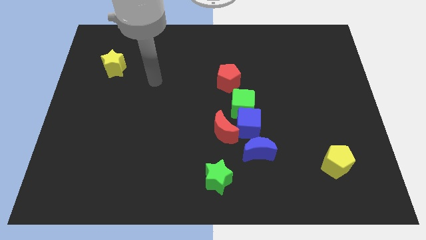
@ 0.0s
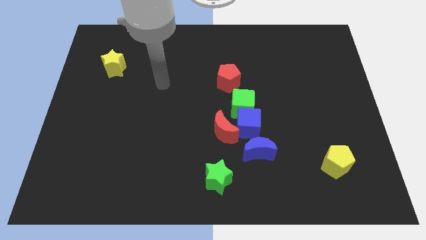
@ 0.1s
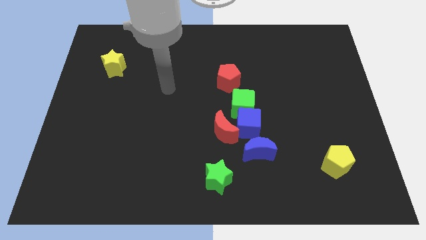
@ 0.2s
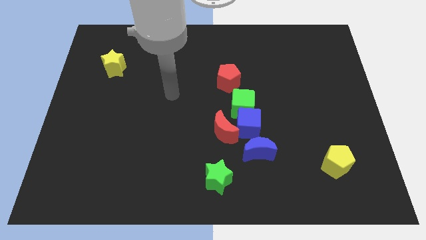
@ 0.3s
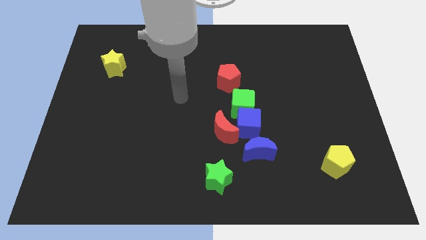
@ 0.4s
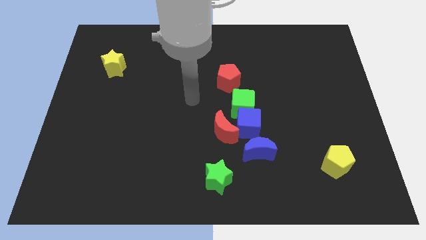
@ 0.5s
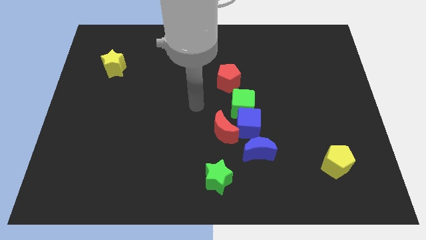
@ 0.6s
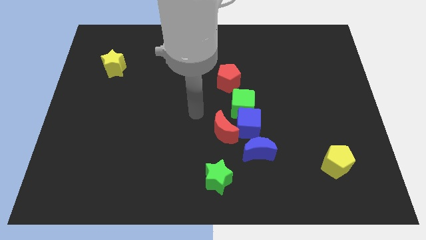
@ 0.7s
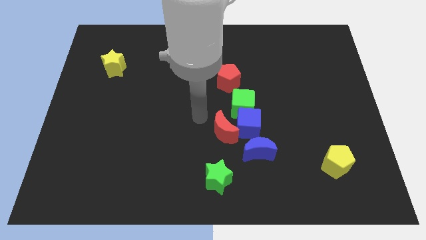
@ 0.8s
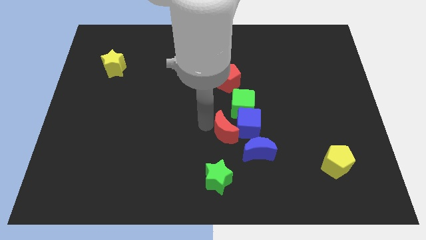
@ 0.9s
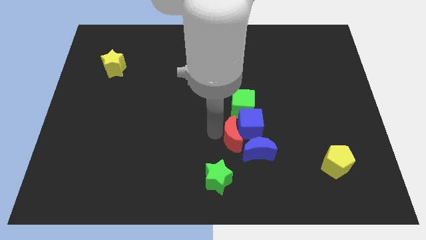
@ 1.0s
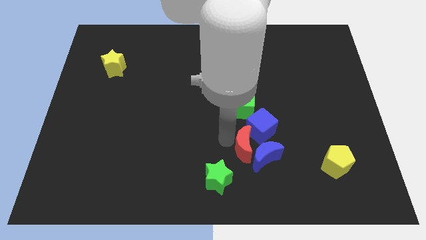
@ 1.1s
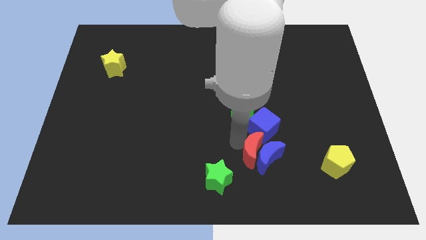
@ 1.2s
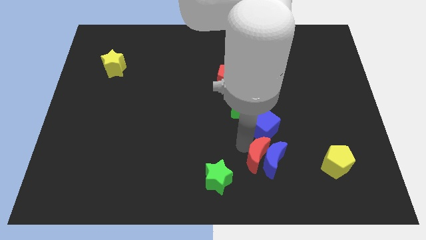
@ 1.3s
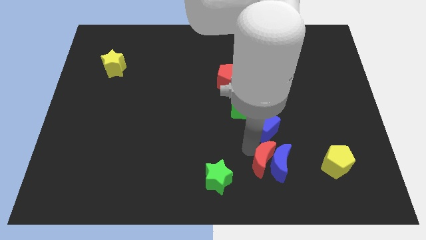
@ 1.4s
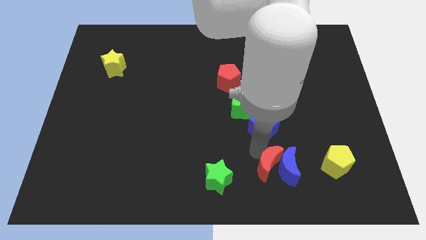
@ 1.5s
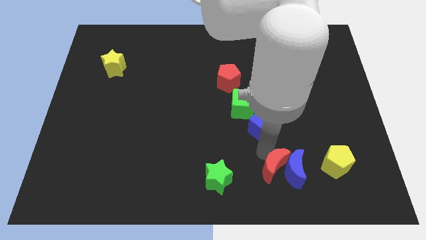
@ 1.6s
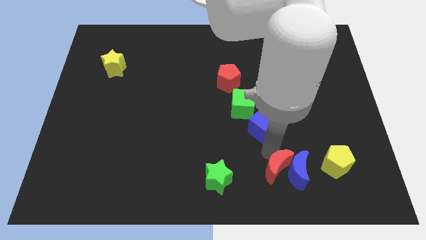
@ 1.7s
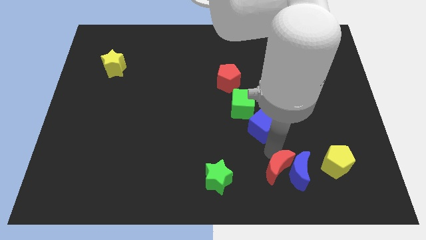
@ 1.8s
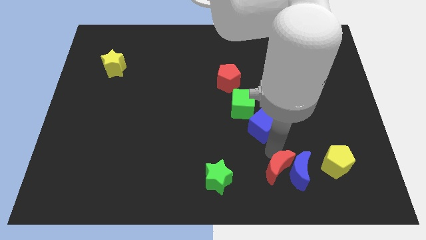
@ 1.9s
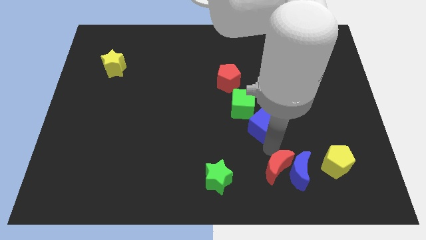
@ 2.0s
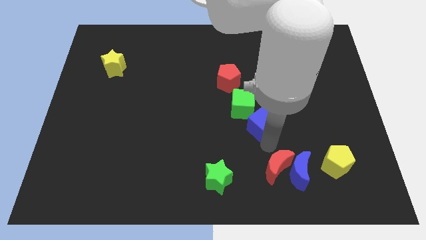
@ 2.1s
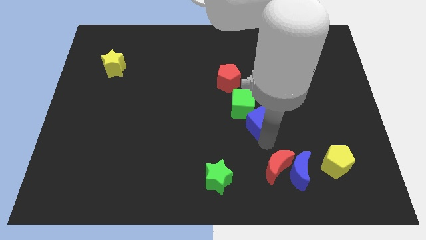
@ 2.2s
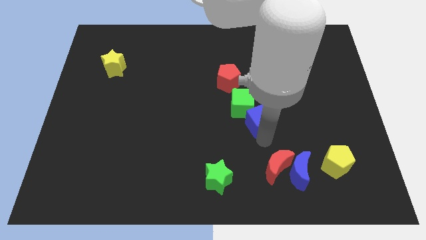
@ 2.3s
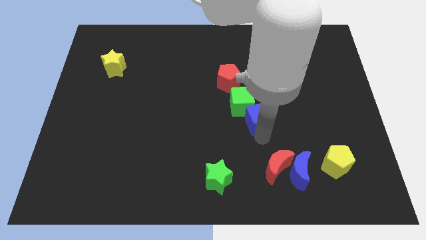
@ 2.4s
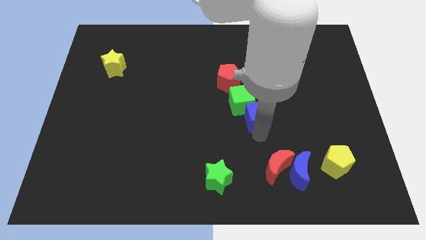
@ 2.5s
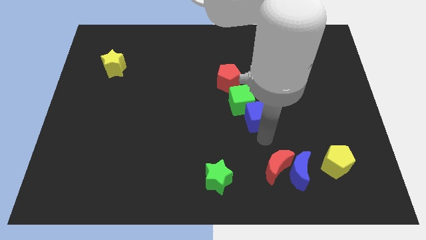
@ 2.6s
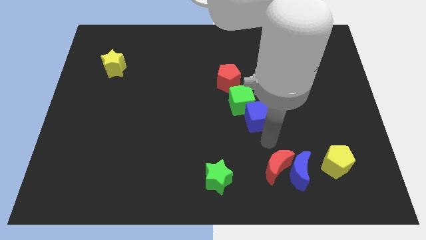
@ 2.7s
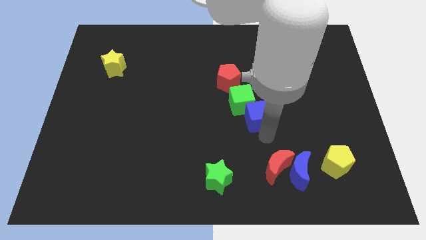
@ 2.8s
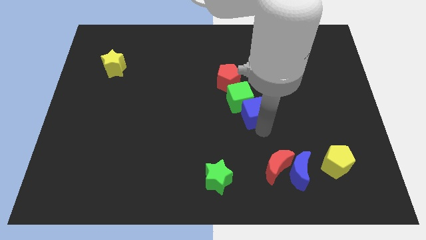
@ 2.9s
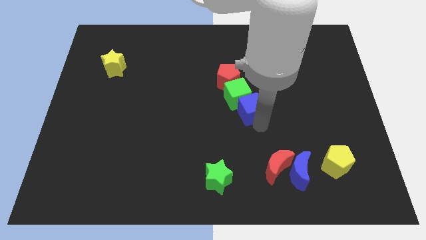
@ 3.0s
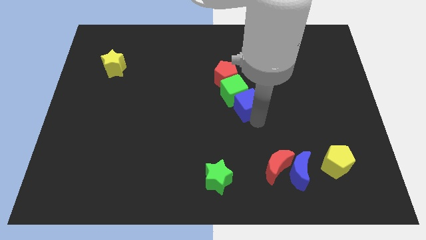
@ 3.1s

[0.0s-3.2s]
separate the blue cube from the clump

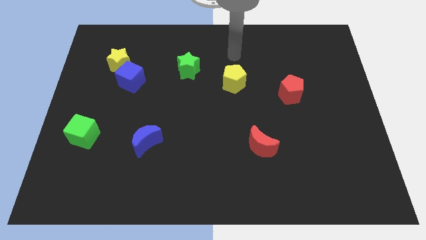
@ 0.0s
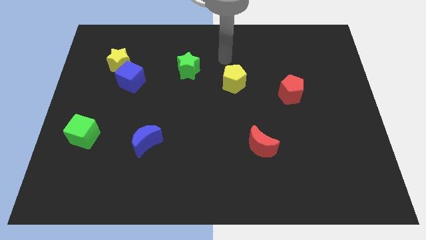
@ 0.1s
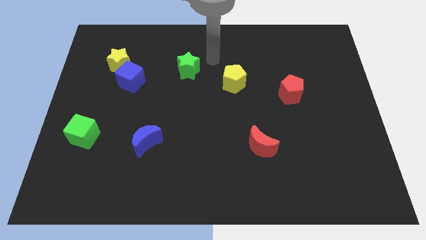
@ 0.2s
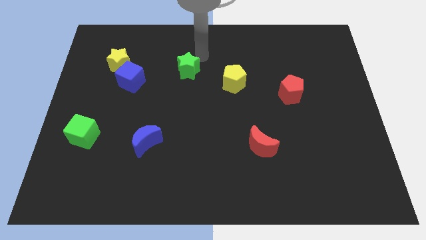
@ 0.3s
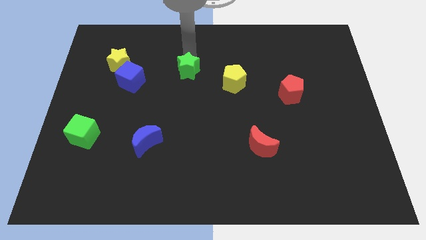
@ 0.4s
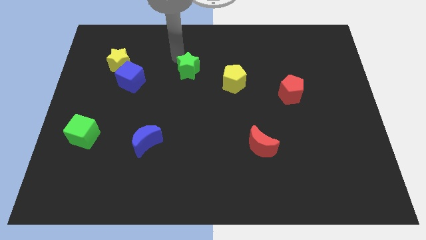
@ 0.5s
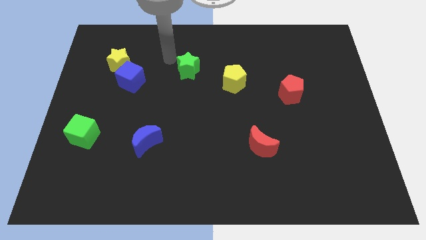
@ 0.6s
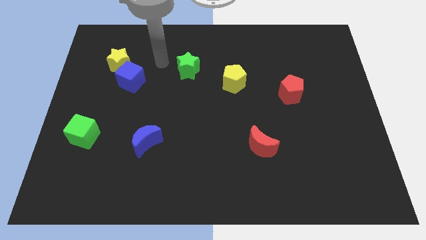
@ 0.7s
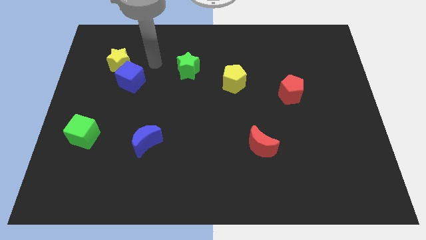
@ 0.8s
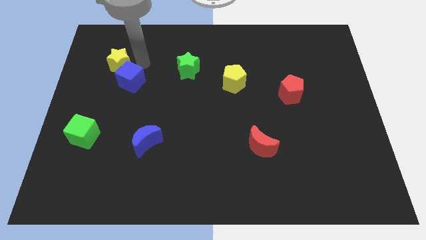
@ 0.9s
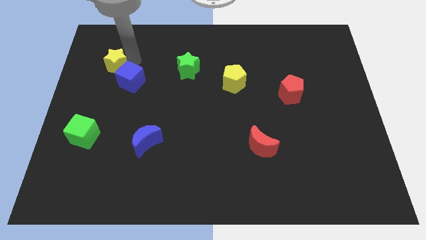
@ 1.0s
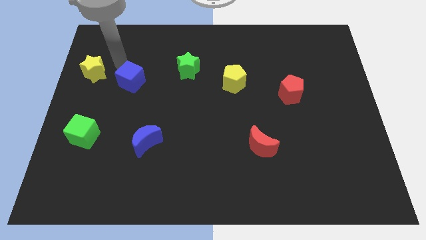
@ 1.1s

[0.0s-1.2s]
separate the blue cube from the yellow star

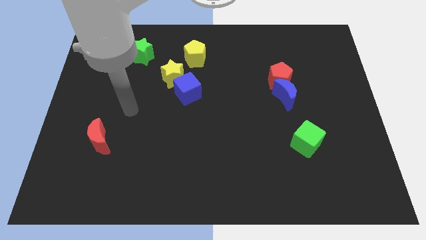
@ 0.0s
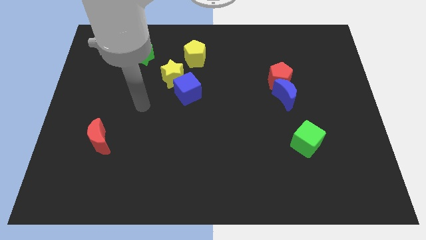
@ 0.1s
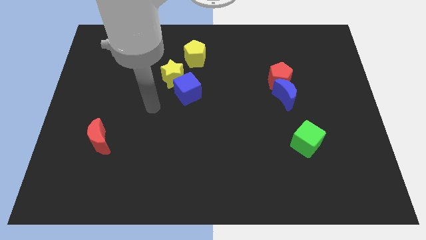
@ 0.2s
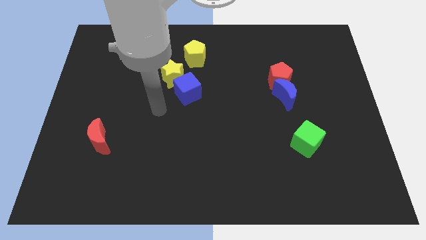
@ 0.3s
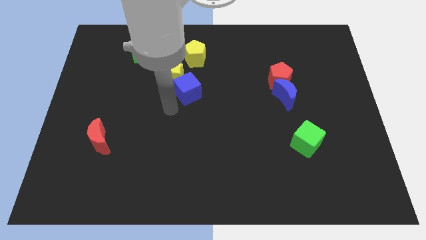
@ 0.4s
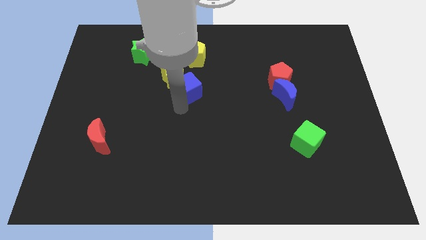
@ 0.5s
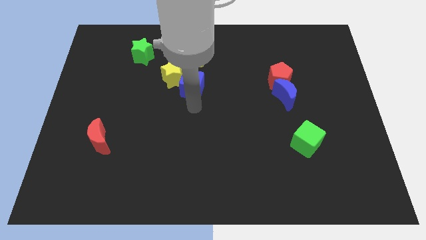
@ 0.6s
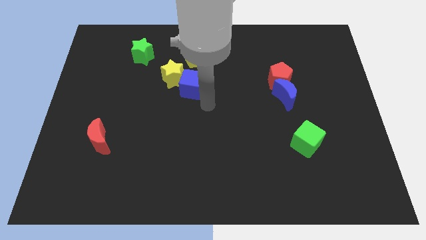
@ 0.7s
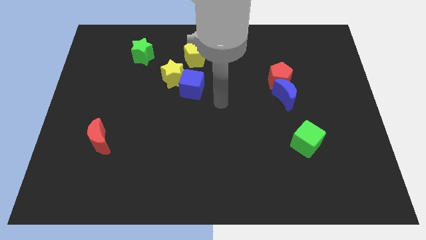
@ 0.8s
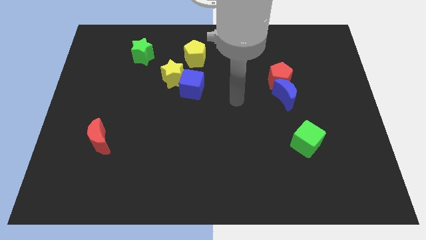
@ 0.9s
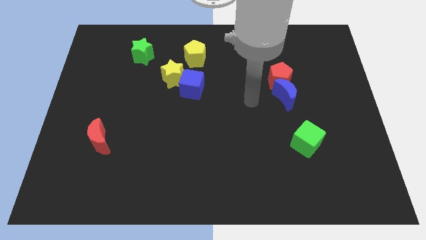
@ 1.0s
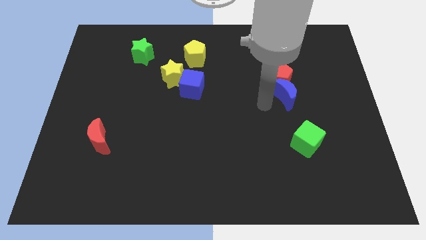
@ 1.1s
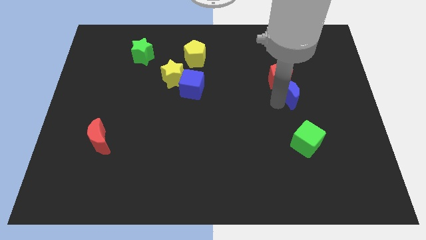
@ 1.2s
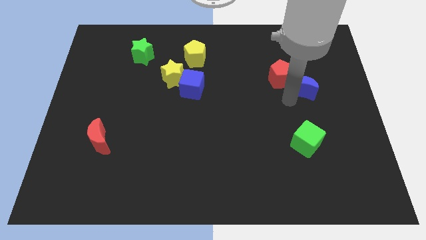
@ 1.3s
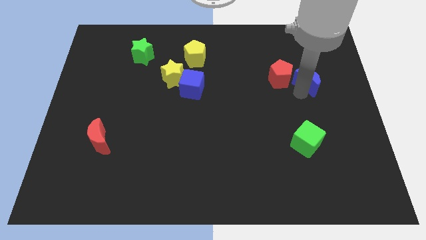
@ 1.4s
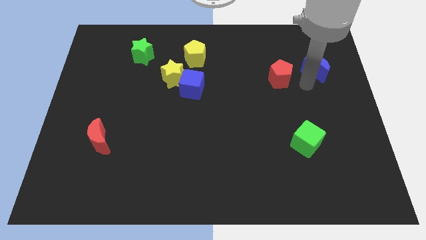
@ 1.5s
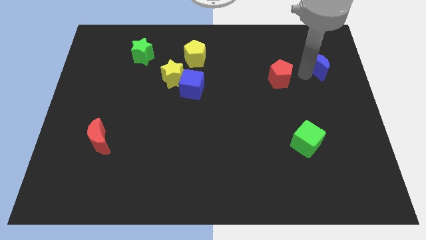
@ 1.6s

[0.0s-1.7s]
pull the red pentagon apart from the blue moon

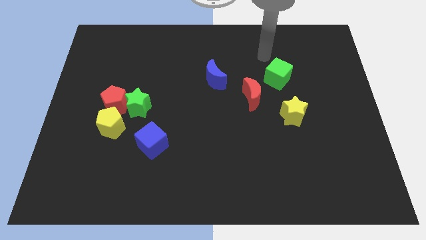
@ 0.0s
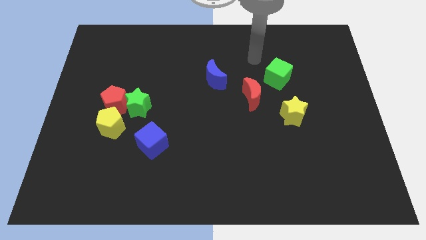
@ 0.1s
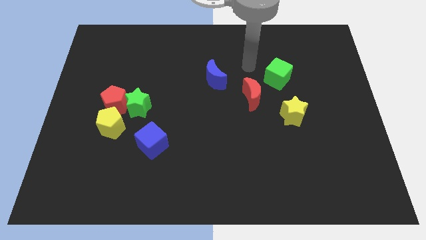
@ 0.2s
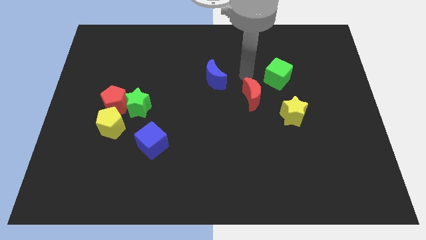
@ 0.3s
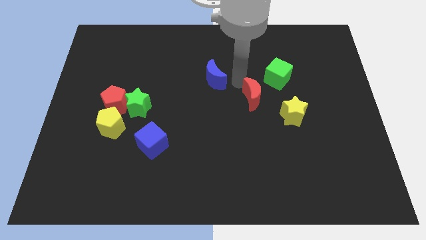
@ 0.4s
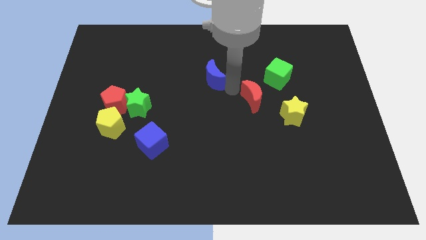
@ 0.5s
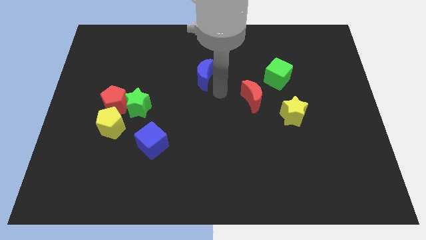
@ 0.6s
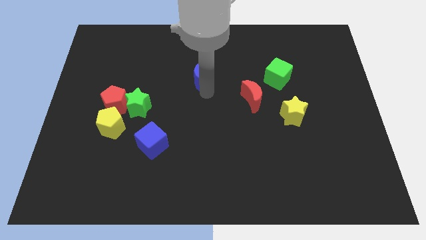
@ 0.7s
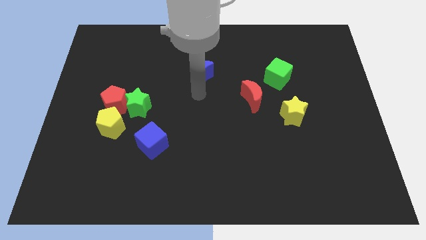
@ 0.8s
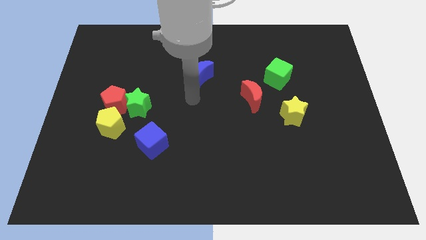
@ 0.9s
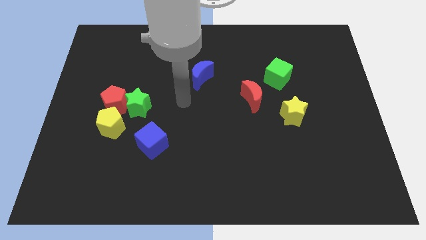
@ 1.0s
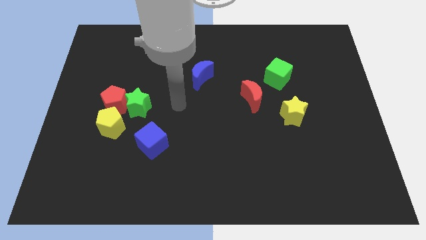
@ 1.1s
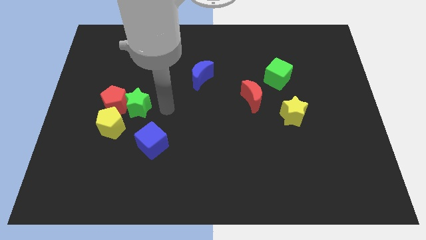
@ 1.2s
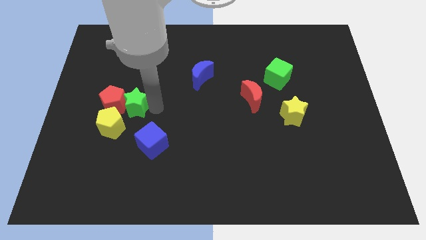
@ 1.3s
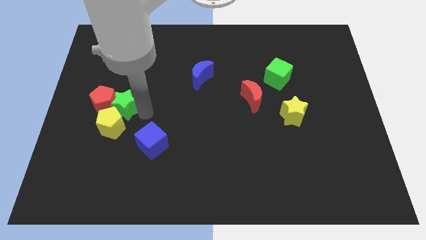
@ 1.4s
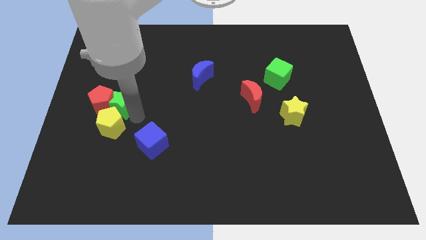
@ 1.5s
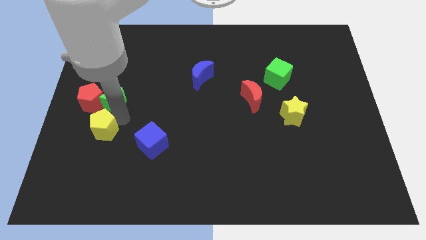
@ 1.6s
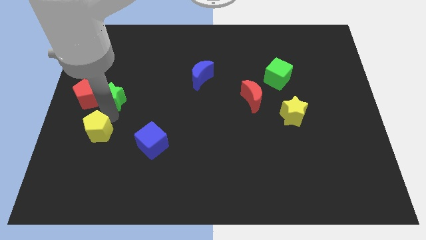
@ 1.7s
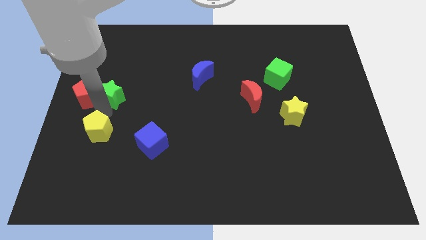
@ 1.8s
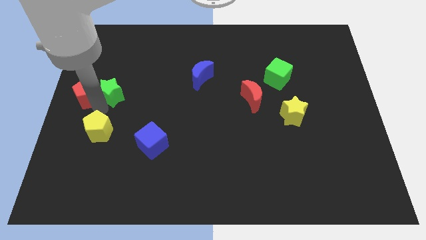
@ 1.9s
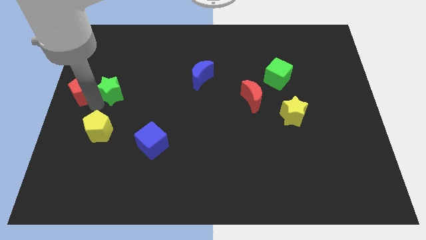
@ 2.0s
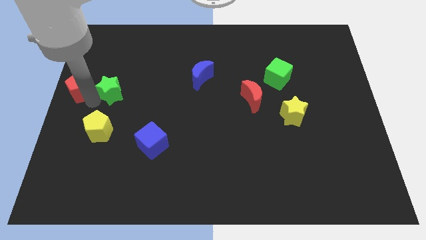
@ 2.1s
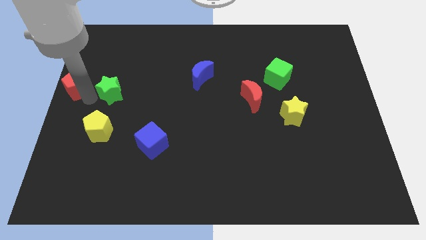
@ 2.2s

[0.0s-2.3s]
pull the red pentagon apart from the green star and yellow pentagon

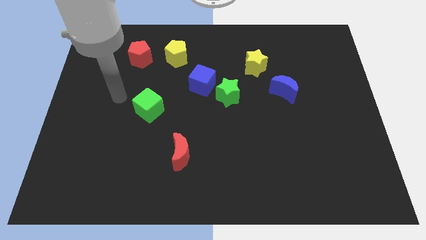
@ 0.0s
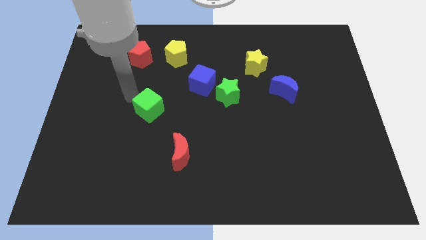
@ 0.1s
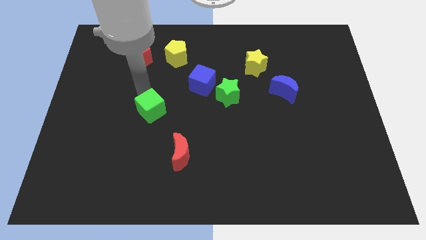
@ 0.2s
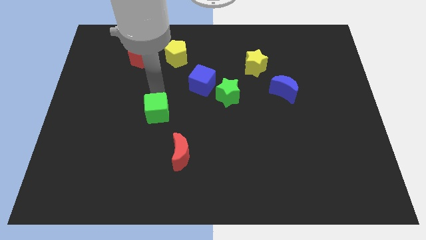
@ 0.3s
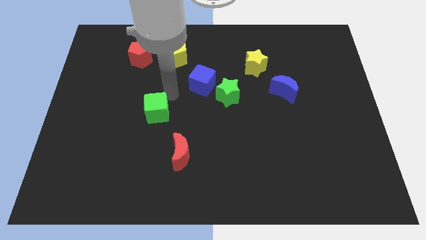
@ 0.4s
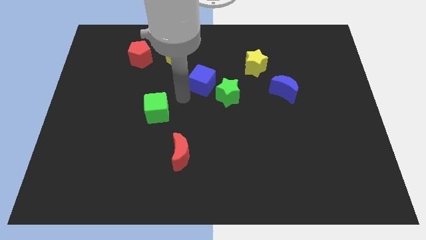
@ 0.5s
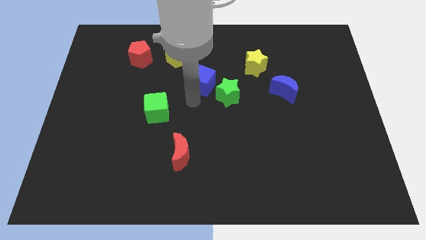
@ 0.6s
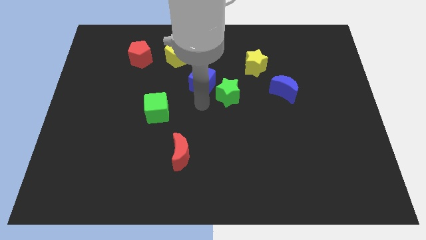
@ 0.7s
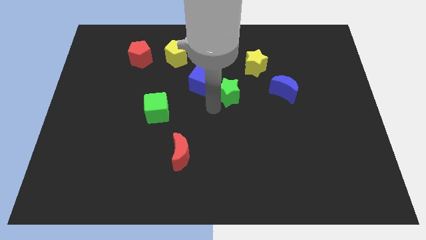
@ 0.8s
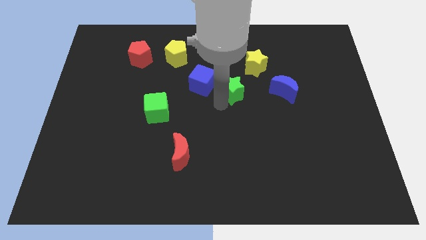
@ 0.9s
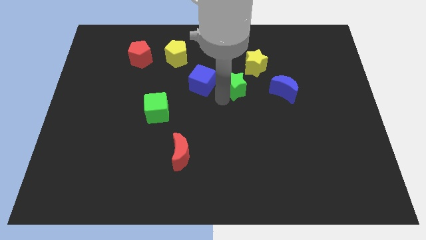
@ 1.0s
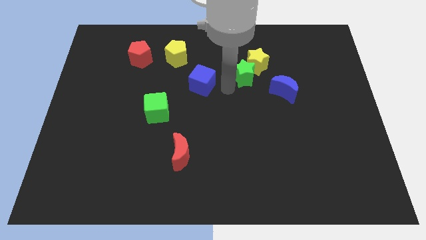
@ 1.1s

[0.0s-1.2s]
separate the blue cube from the green star
